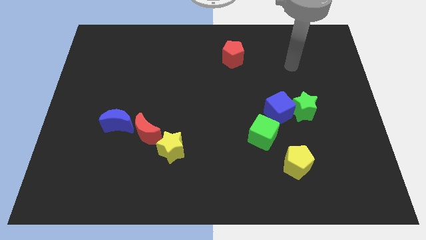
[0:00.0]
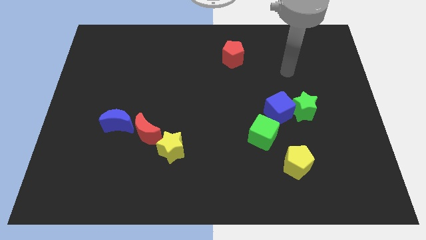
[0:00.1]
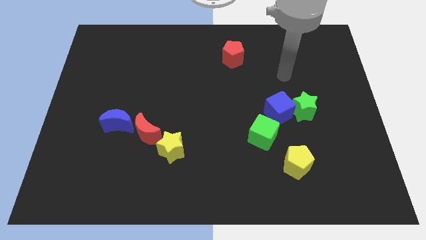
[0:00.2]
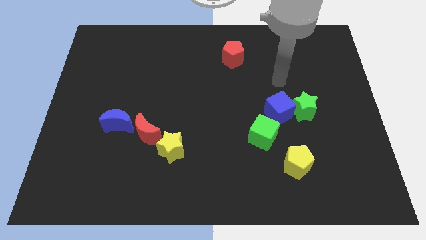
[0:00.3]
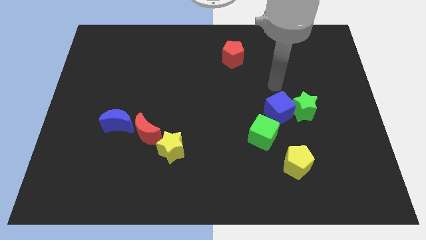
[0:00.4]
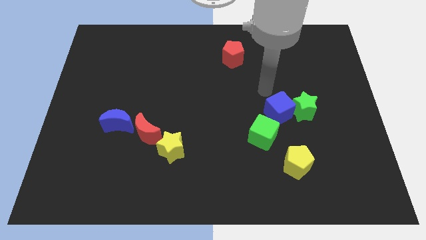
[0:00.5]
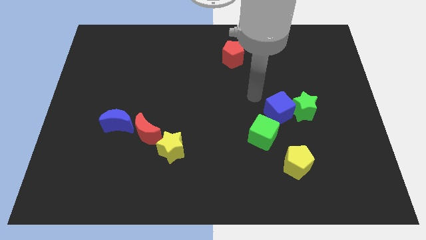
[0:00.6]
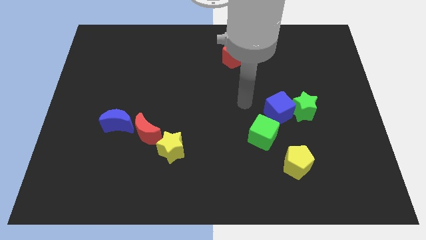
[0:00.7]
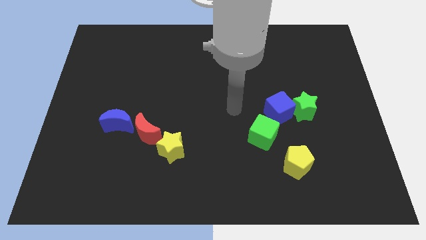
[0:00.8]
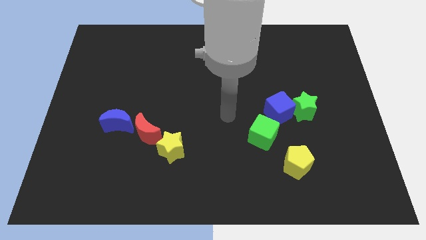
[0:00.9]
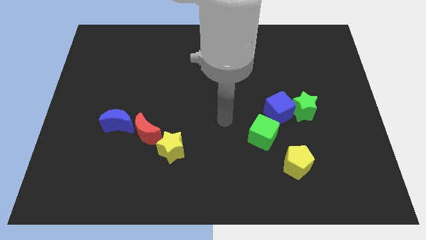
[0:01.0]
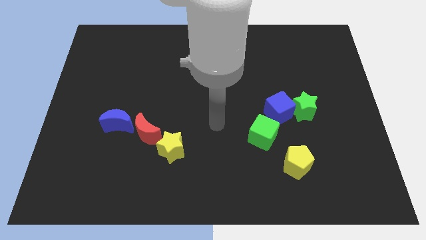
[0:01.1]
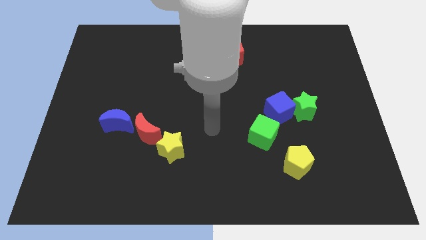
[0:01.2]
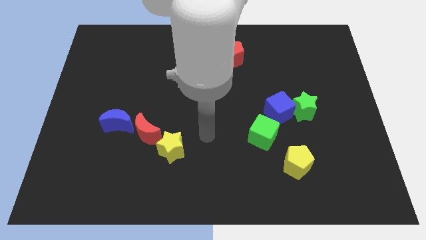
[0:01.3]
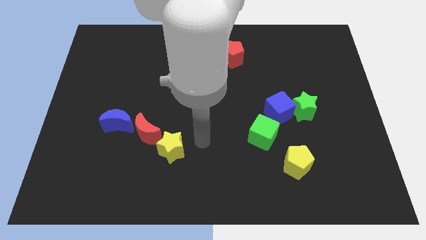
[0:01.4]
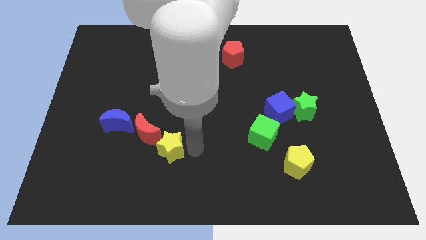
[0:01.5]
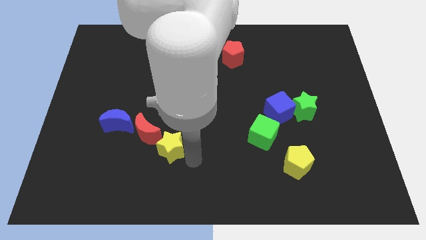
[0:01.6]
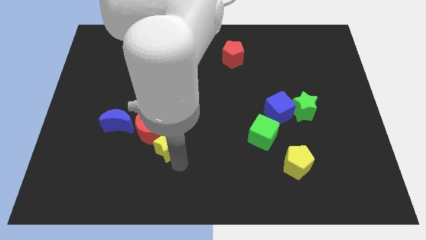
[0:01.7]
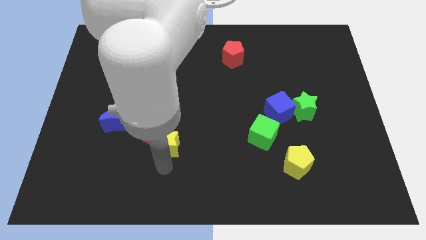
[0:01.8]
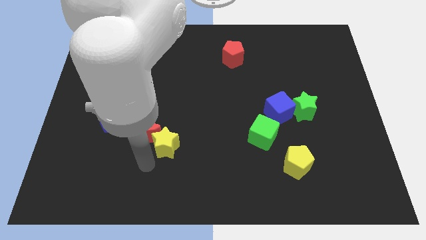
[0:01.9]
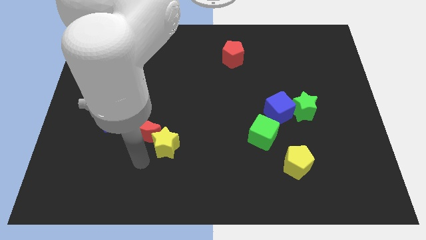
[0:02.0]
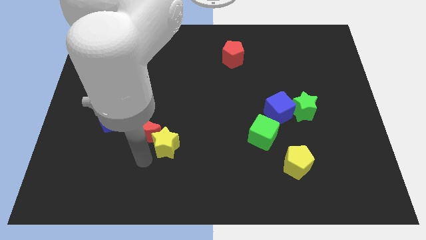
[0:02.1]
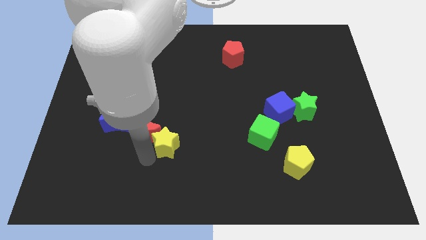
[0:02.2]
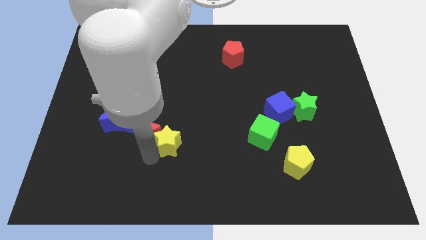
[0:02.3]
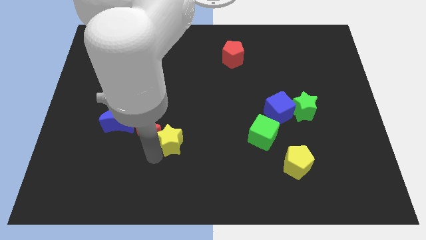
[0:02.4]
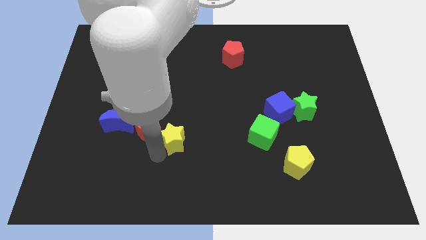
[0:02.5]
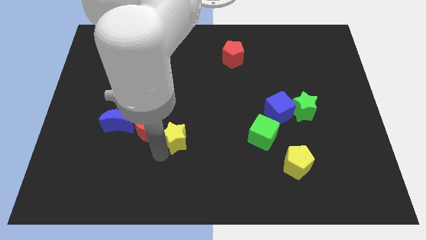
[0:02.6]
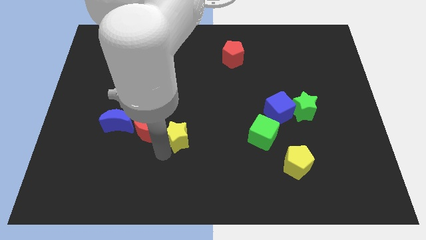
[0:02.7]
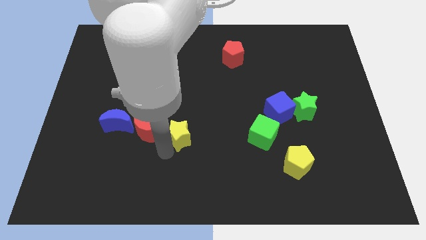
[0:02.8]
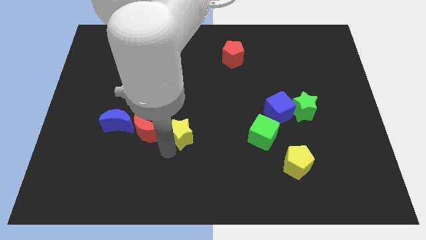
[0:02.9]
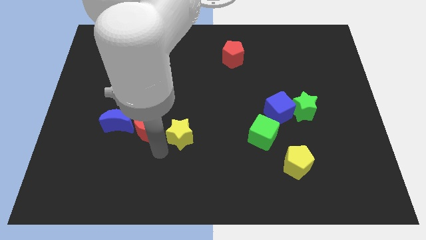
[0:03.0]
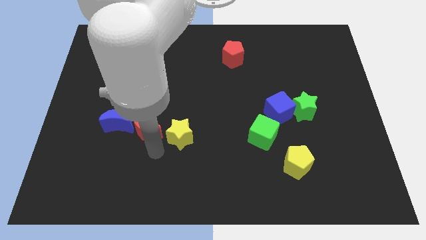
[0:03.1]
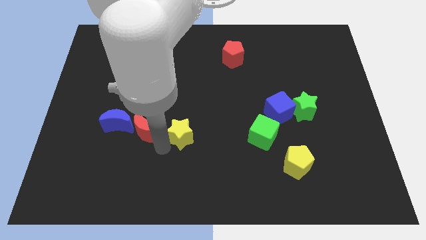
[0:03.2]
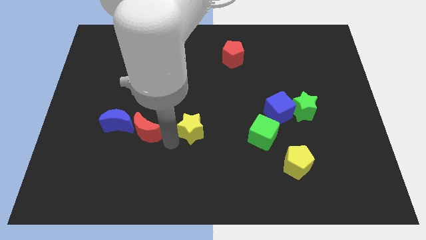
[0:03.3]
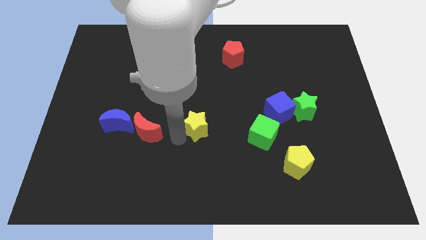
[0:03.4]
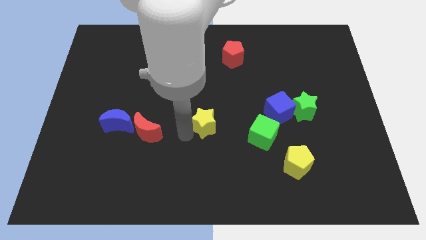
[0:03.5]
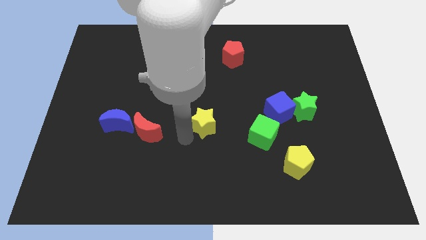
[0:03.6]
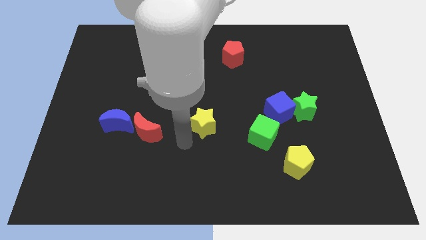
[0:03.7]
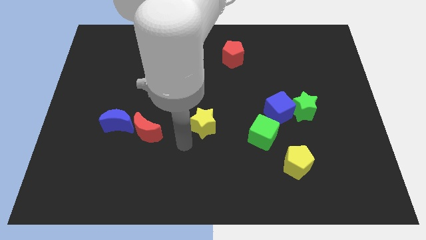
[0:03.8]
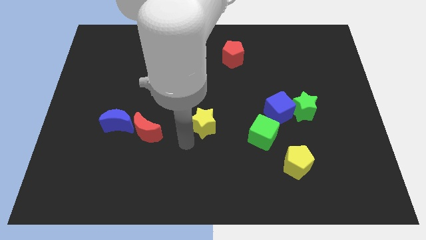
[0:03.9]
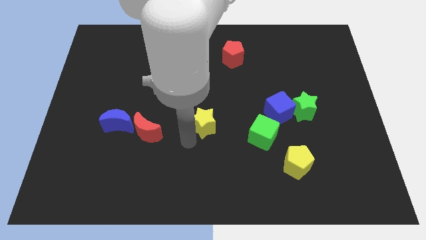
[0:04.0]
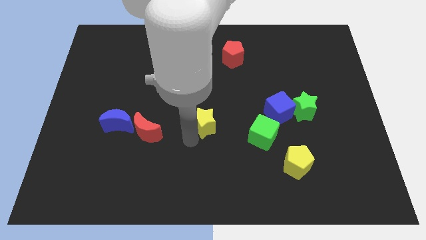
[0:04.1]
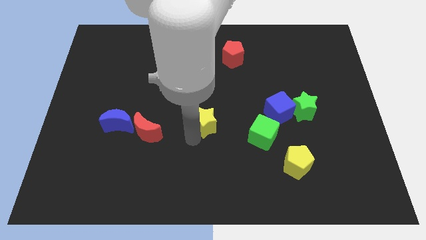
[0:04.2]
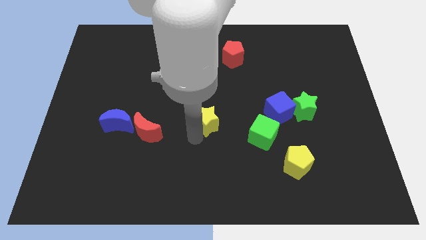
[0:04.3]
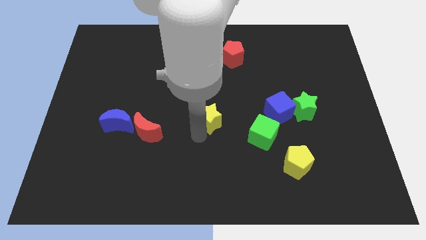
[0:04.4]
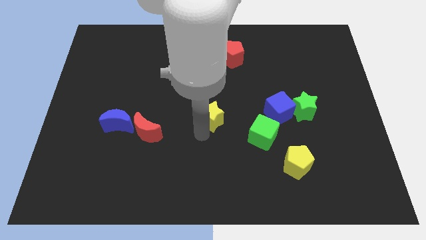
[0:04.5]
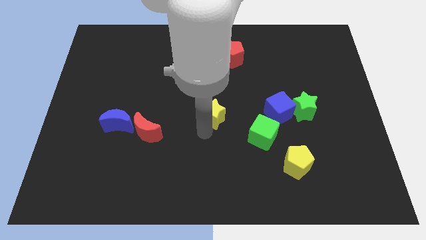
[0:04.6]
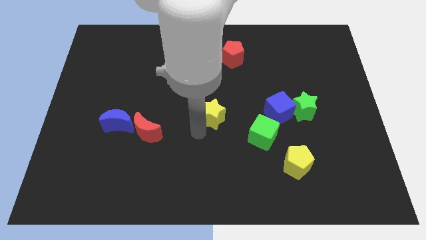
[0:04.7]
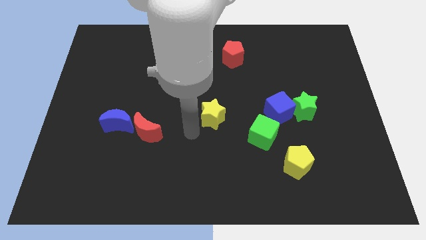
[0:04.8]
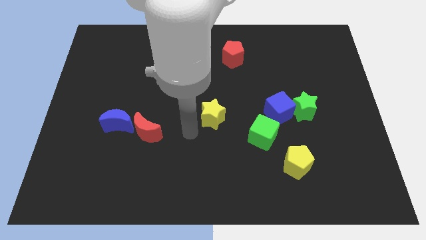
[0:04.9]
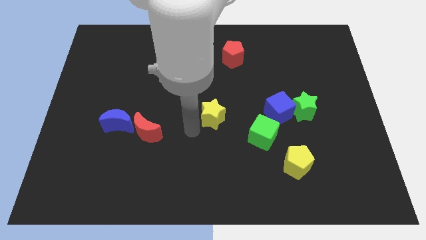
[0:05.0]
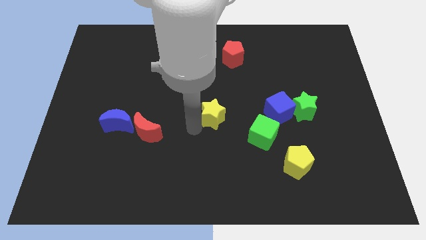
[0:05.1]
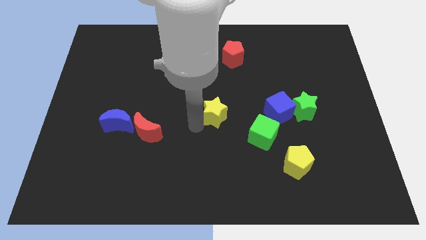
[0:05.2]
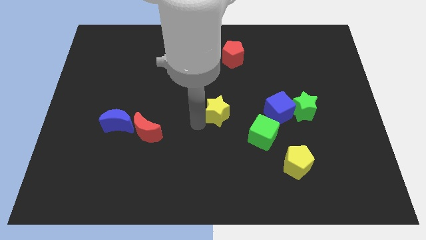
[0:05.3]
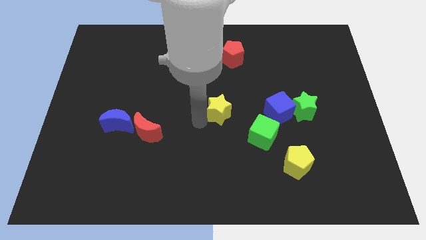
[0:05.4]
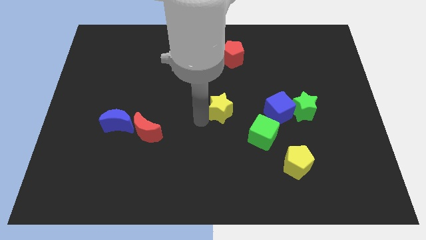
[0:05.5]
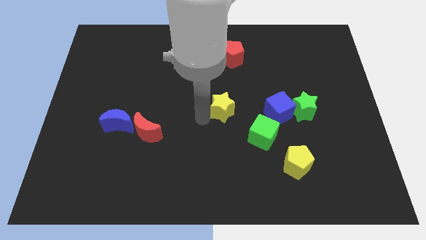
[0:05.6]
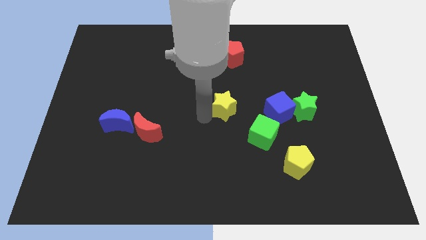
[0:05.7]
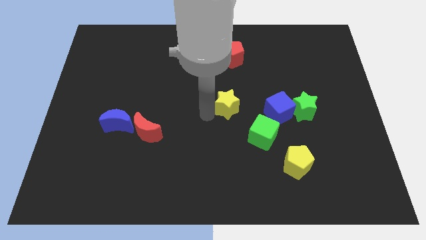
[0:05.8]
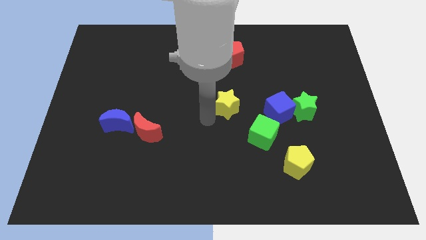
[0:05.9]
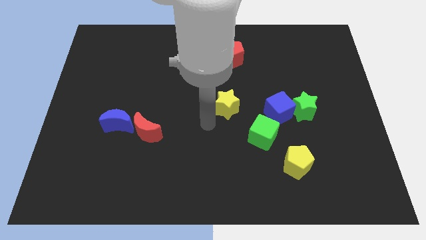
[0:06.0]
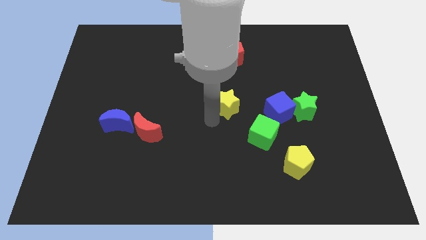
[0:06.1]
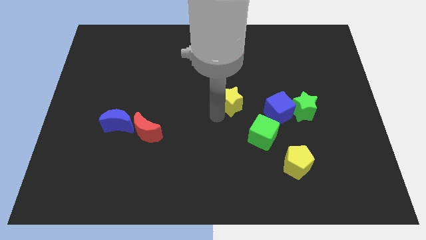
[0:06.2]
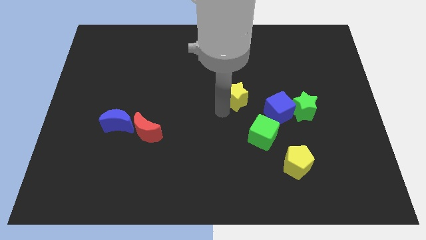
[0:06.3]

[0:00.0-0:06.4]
slide the yellow star diagonally up and to the right

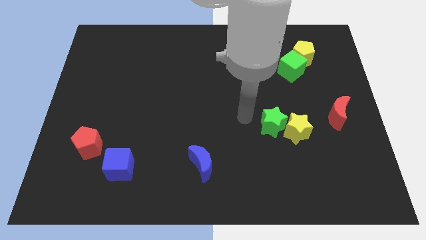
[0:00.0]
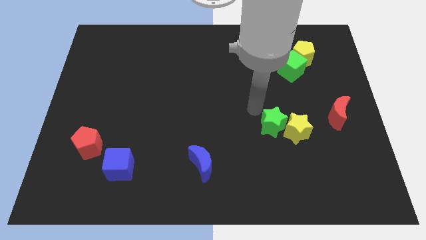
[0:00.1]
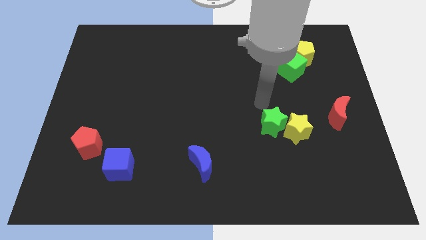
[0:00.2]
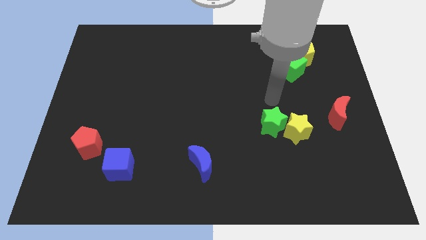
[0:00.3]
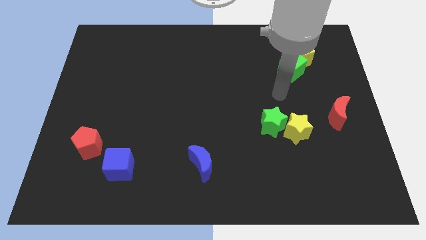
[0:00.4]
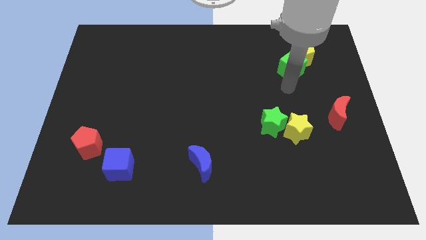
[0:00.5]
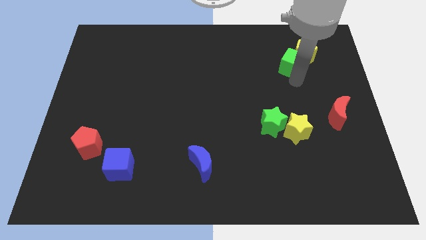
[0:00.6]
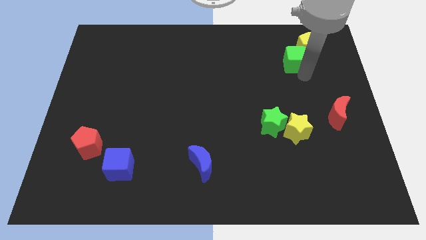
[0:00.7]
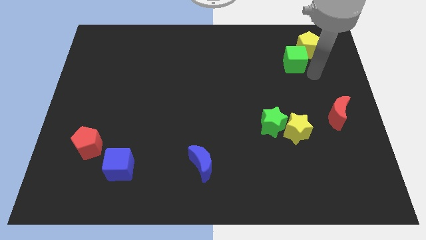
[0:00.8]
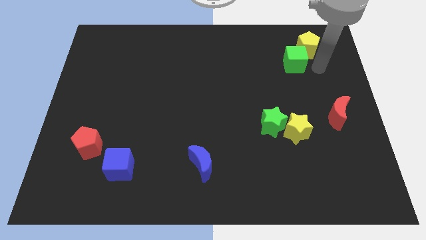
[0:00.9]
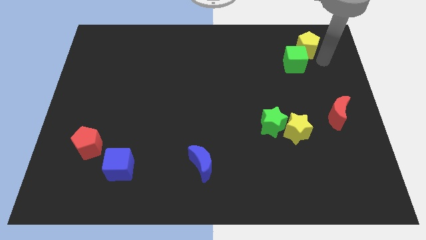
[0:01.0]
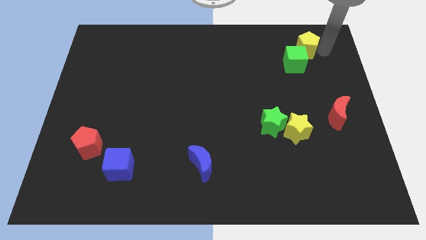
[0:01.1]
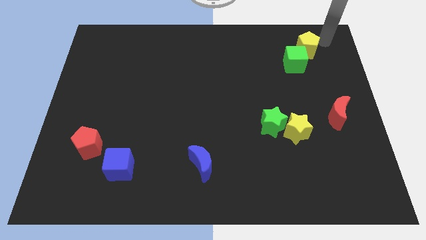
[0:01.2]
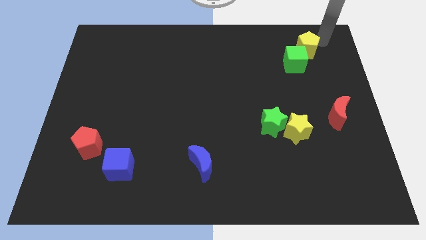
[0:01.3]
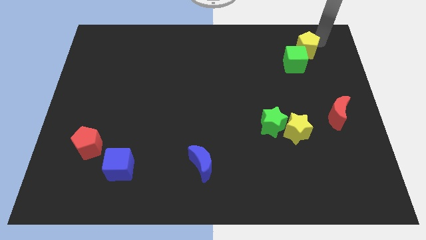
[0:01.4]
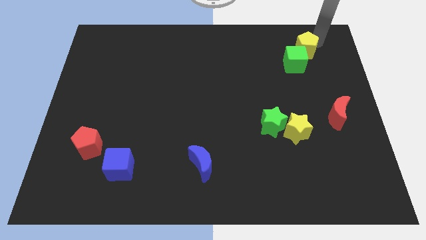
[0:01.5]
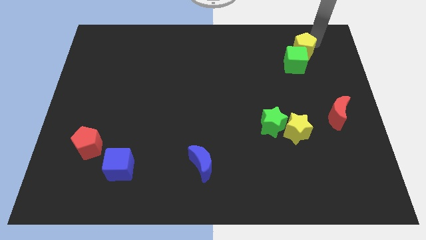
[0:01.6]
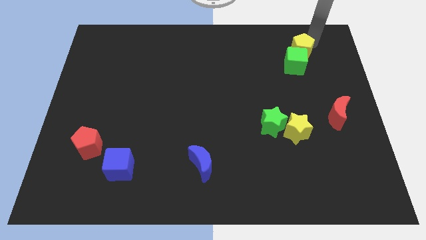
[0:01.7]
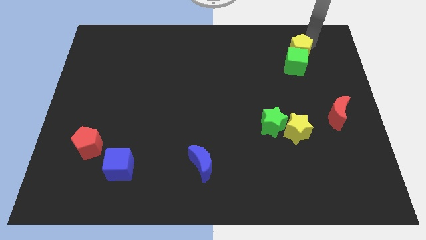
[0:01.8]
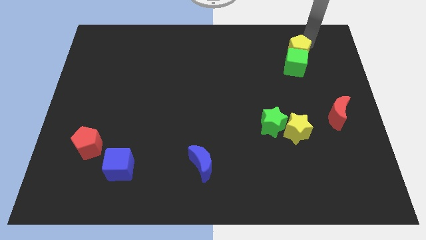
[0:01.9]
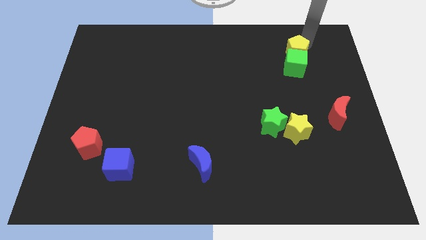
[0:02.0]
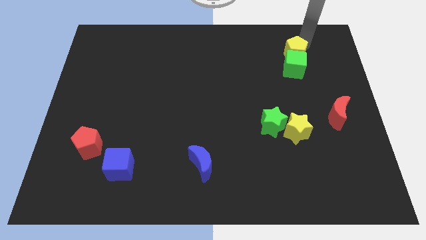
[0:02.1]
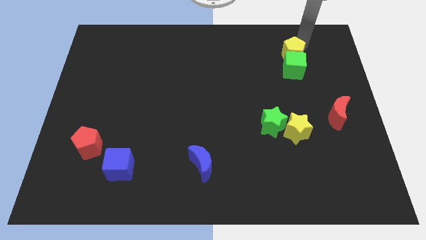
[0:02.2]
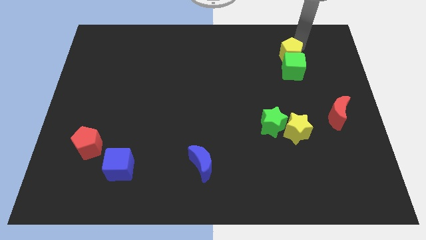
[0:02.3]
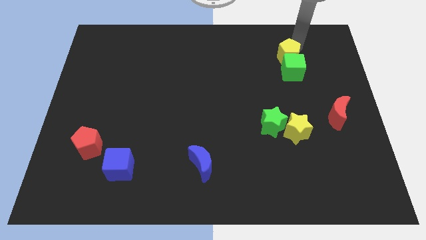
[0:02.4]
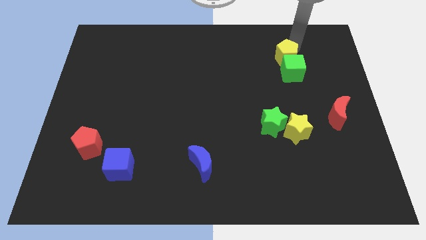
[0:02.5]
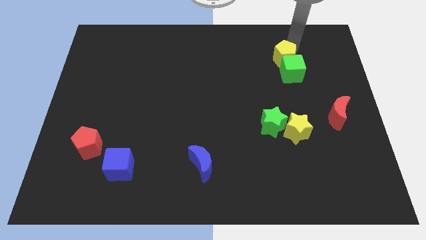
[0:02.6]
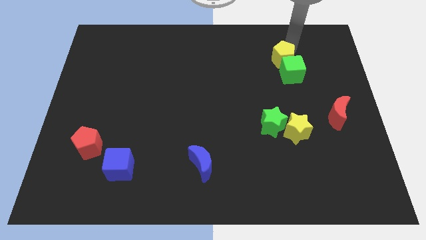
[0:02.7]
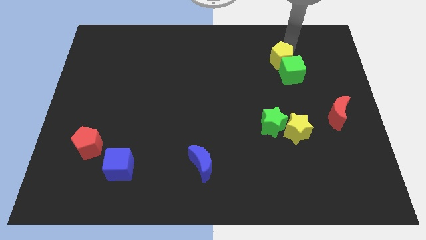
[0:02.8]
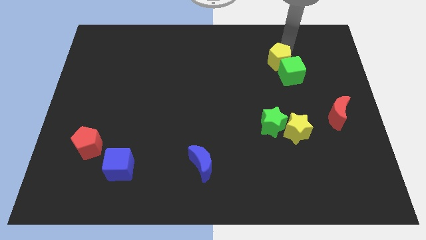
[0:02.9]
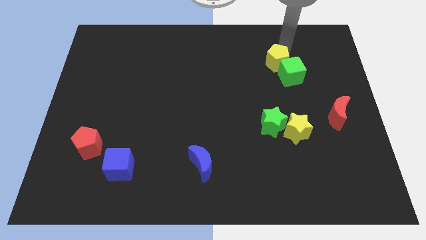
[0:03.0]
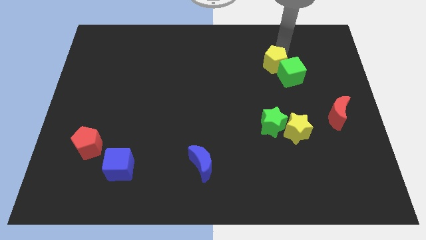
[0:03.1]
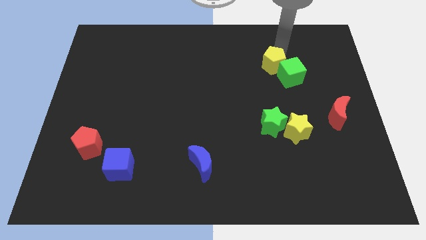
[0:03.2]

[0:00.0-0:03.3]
slightly slide the yellow pentagon downwards and then to the left
